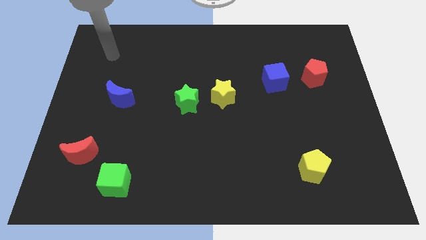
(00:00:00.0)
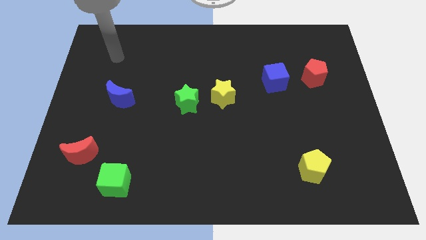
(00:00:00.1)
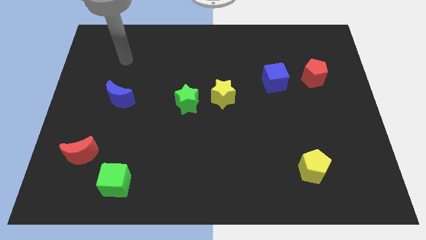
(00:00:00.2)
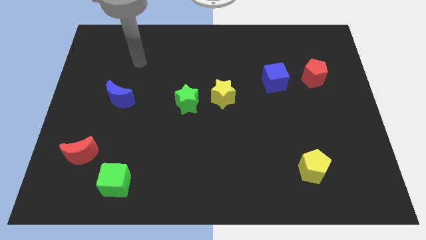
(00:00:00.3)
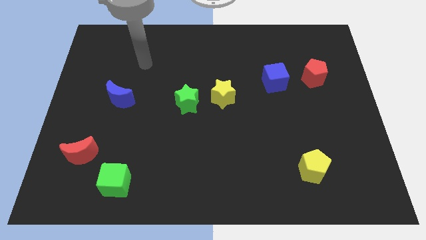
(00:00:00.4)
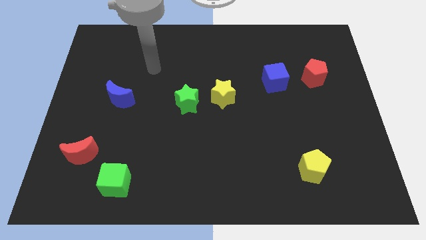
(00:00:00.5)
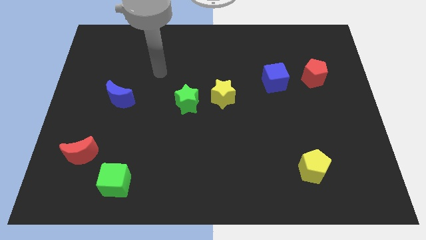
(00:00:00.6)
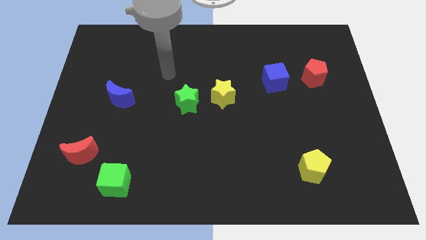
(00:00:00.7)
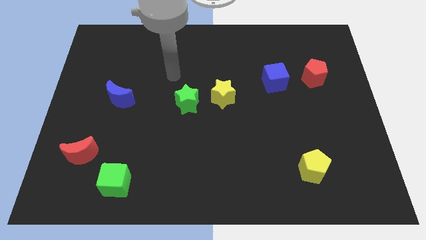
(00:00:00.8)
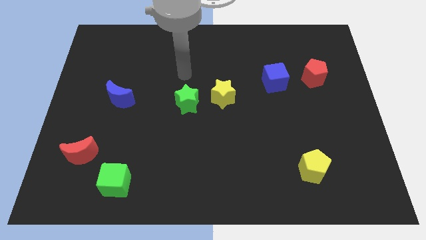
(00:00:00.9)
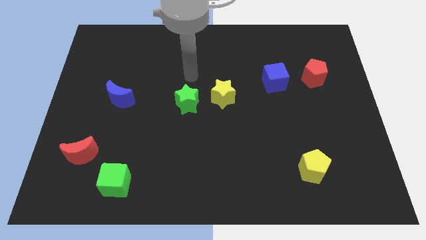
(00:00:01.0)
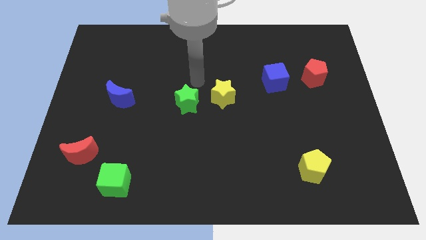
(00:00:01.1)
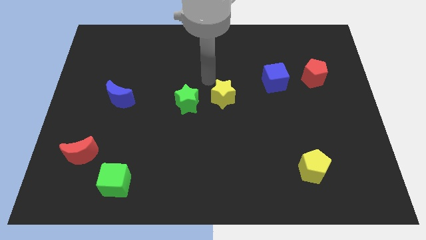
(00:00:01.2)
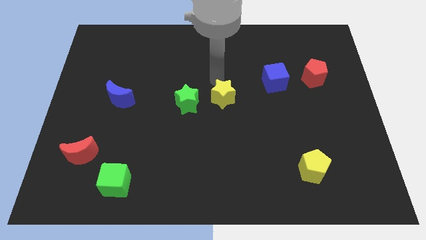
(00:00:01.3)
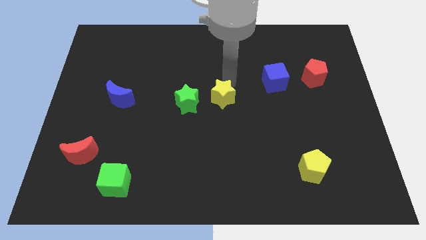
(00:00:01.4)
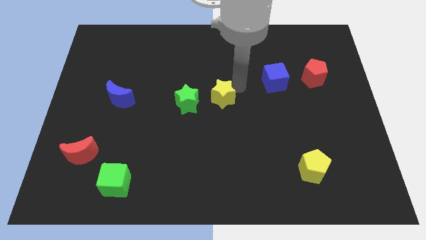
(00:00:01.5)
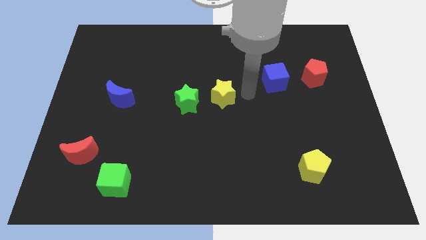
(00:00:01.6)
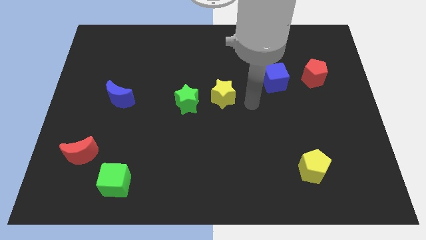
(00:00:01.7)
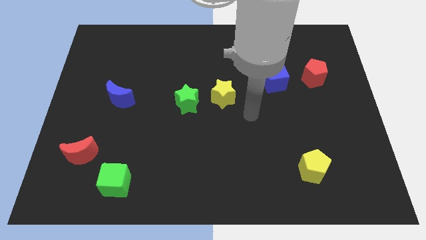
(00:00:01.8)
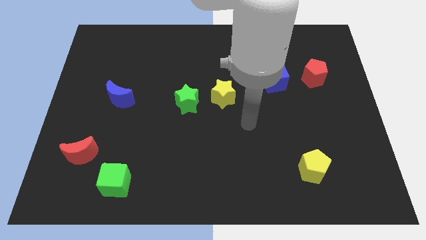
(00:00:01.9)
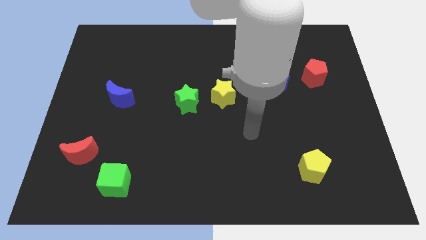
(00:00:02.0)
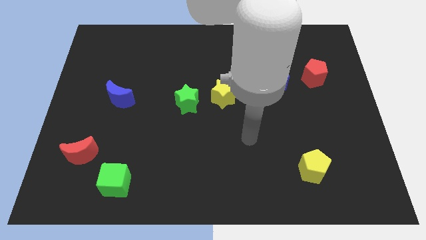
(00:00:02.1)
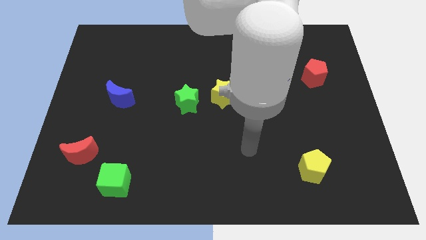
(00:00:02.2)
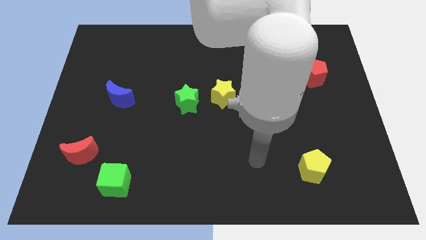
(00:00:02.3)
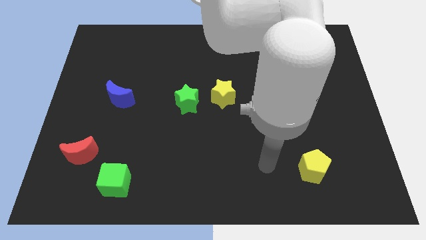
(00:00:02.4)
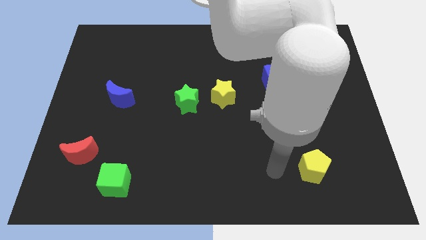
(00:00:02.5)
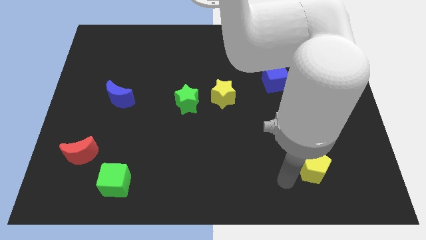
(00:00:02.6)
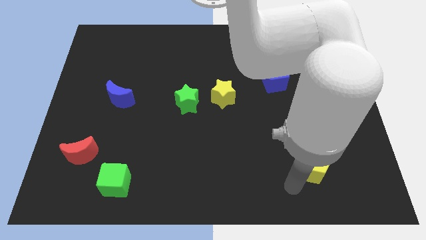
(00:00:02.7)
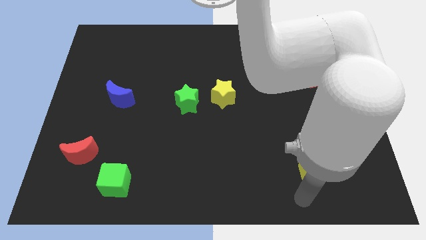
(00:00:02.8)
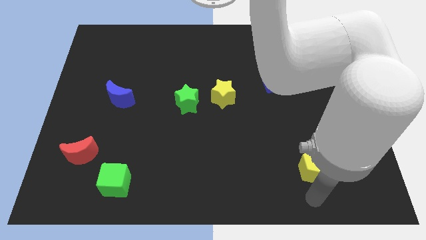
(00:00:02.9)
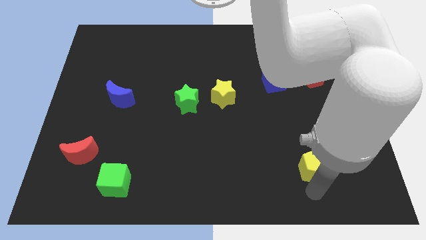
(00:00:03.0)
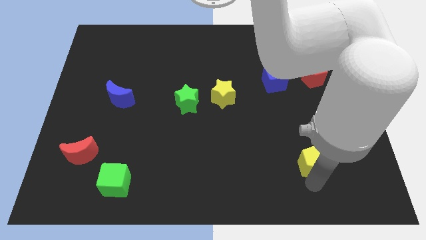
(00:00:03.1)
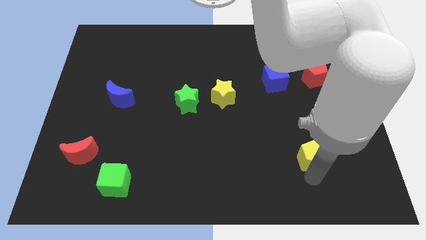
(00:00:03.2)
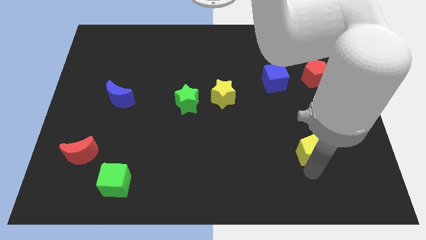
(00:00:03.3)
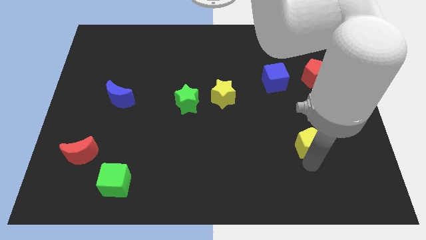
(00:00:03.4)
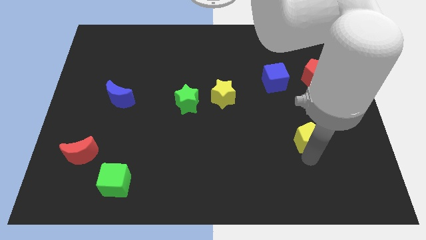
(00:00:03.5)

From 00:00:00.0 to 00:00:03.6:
slide the yellow pentagon up slightly

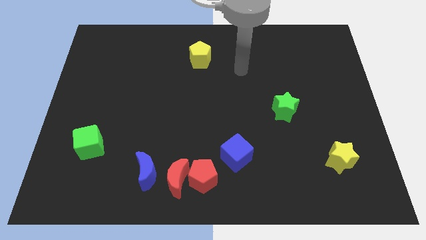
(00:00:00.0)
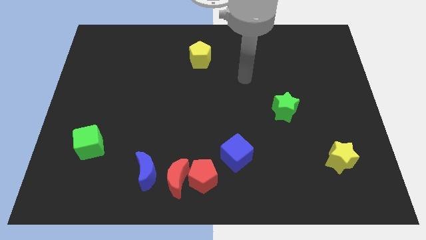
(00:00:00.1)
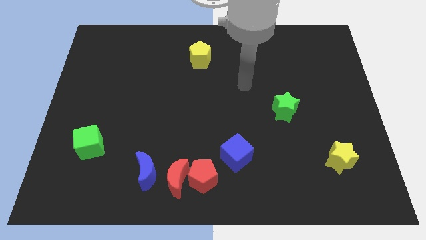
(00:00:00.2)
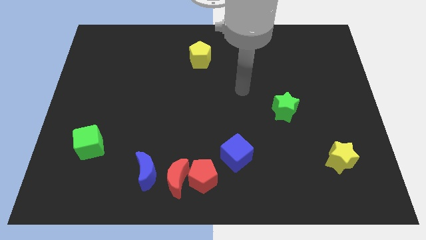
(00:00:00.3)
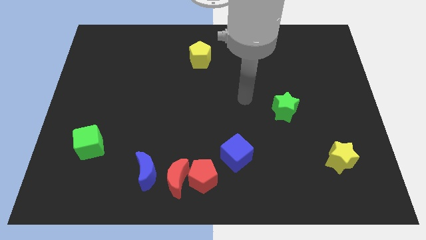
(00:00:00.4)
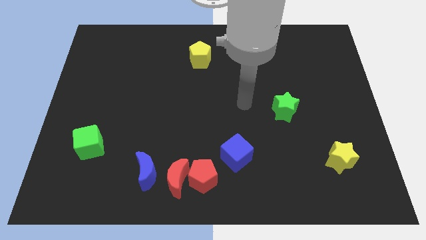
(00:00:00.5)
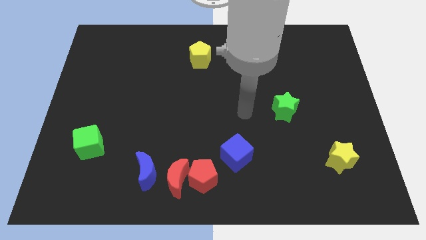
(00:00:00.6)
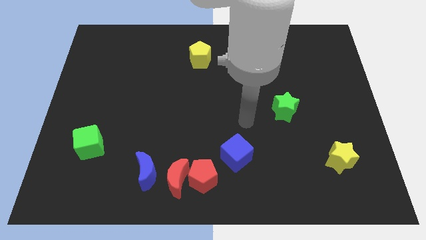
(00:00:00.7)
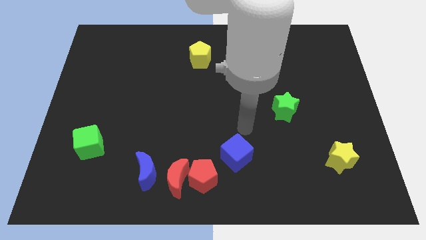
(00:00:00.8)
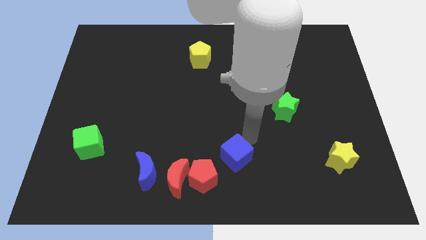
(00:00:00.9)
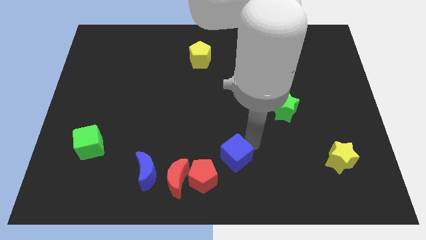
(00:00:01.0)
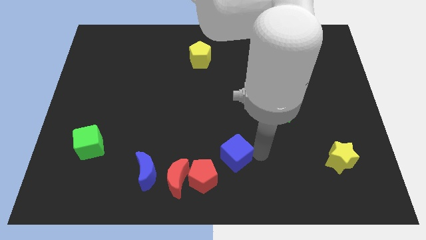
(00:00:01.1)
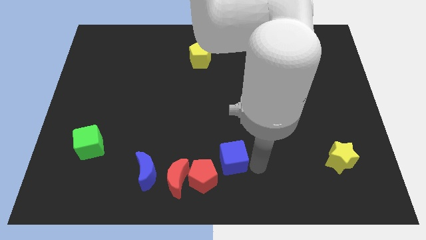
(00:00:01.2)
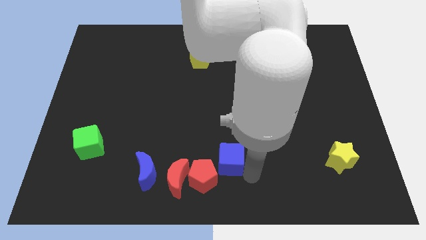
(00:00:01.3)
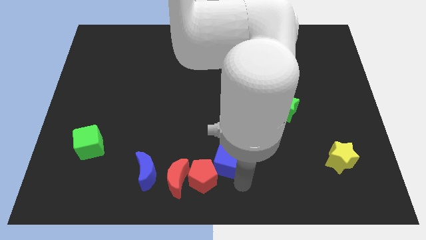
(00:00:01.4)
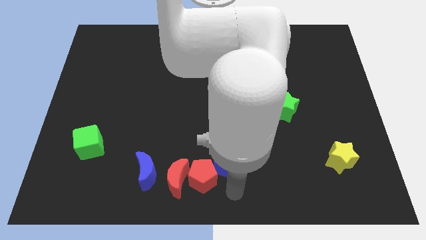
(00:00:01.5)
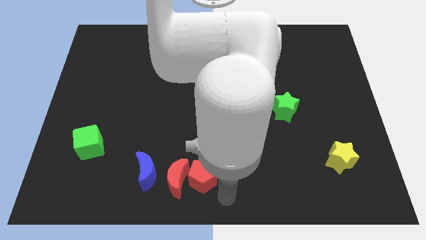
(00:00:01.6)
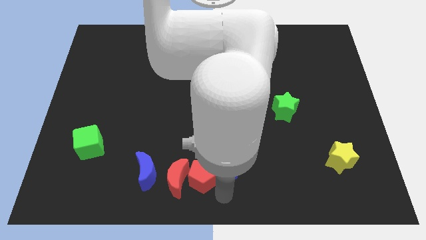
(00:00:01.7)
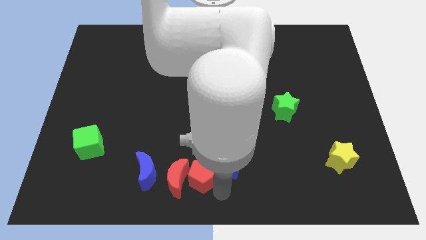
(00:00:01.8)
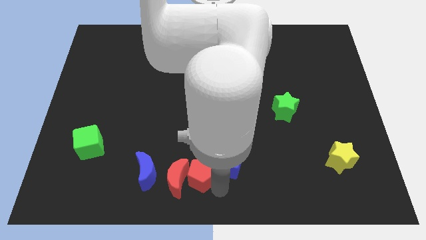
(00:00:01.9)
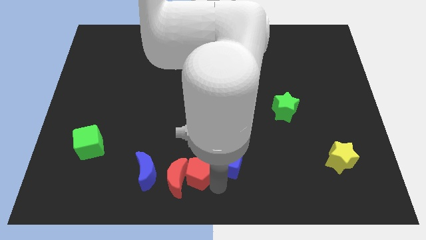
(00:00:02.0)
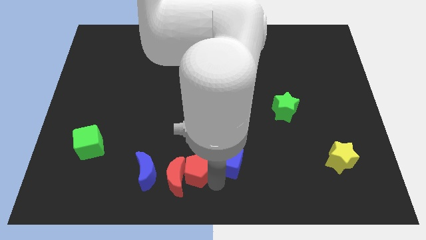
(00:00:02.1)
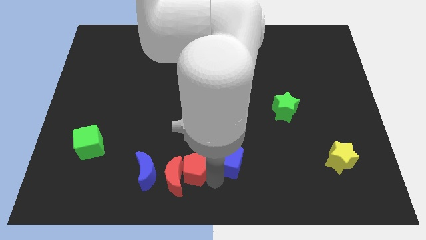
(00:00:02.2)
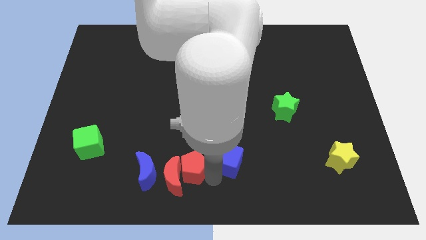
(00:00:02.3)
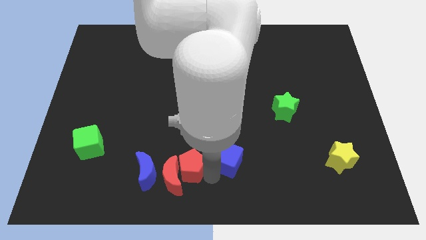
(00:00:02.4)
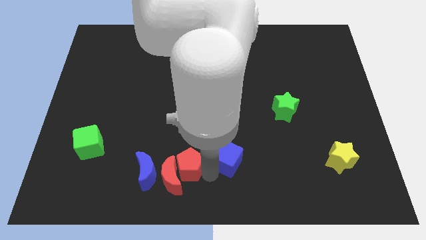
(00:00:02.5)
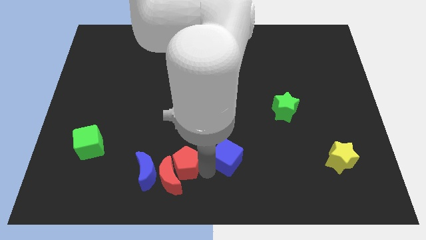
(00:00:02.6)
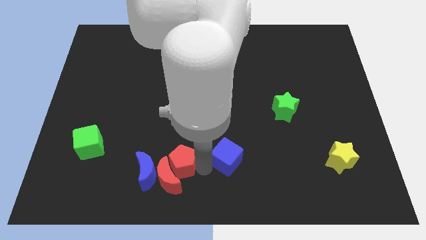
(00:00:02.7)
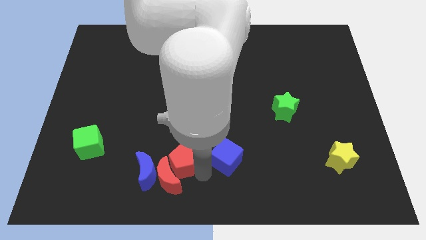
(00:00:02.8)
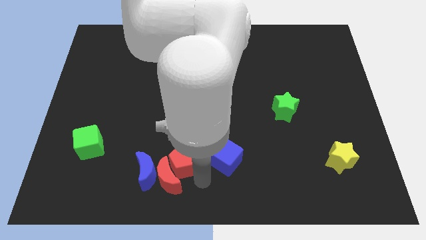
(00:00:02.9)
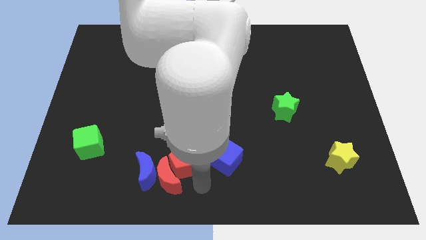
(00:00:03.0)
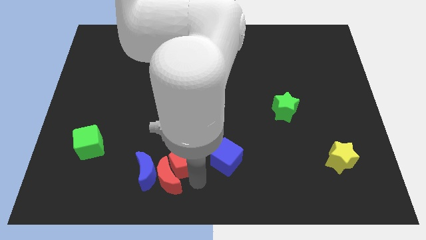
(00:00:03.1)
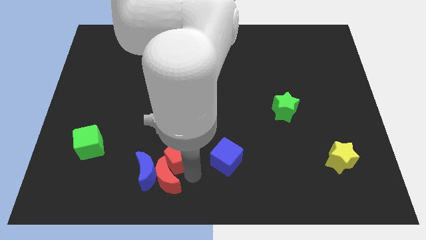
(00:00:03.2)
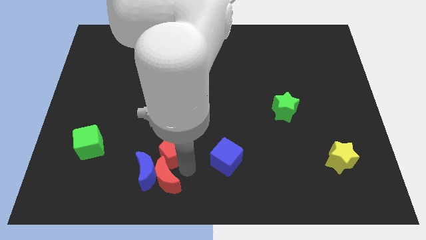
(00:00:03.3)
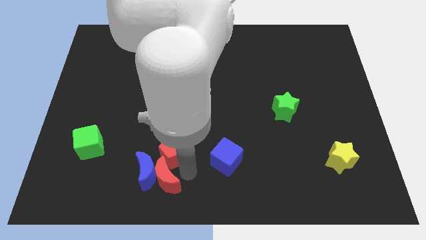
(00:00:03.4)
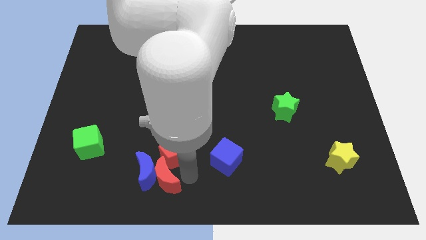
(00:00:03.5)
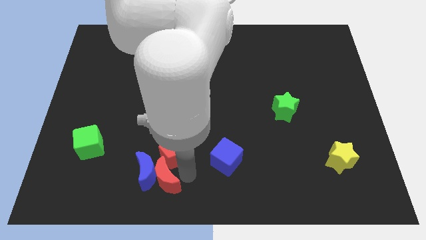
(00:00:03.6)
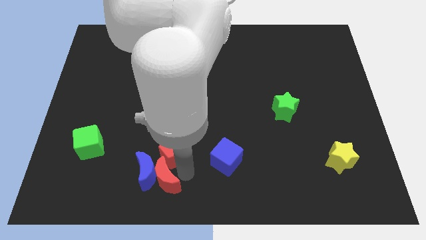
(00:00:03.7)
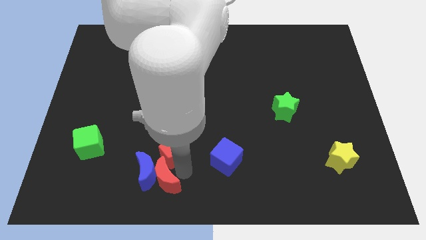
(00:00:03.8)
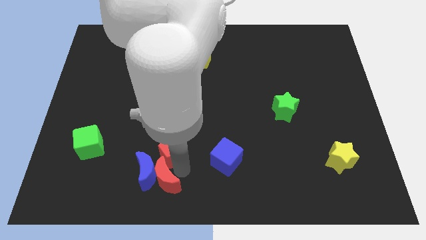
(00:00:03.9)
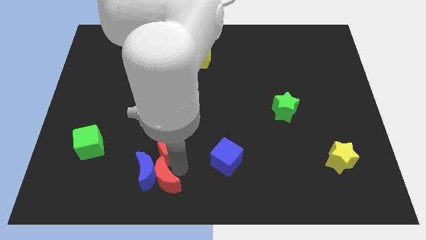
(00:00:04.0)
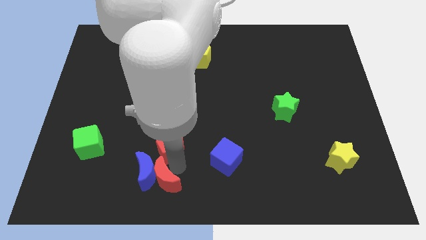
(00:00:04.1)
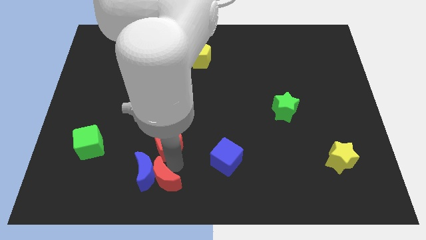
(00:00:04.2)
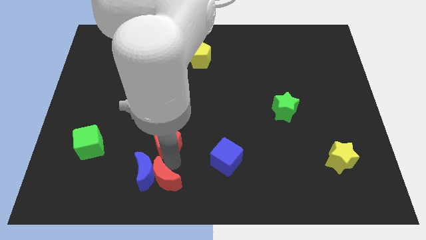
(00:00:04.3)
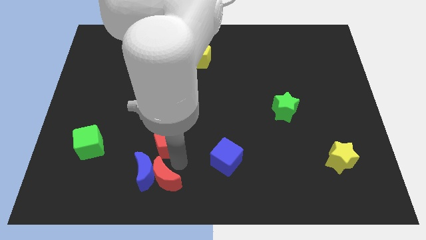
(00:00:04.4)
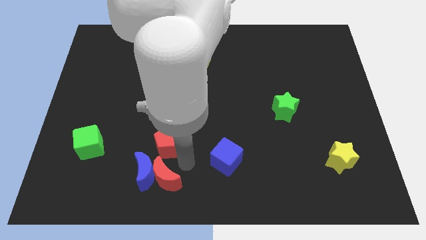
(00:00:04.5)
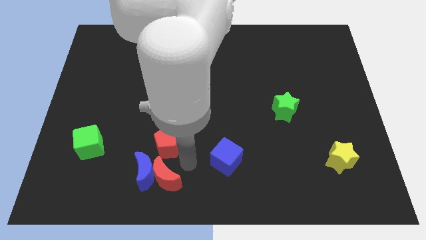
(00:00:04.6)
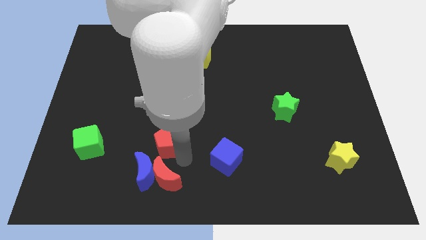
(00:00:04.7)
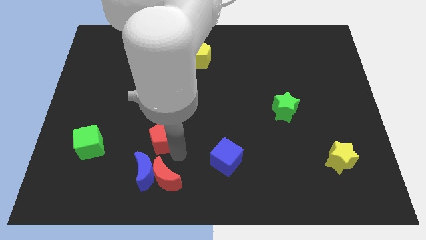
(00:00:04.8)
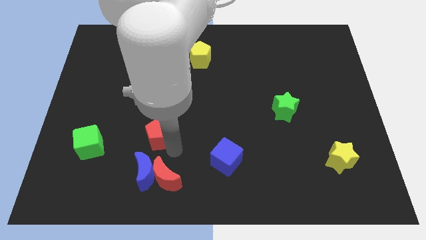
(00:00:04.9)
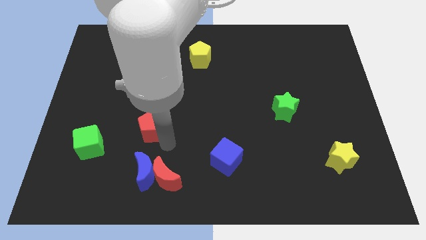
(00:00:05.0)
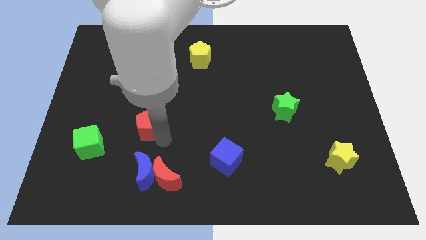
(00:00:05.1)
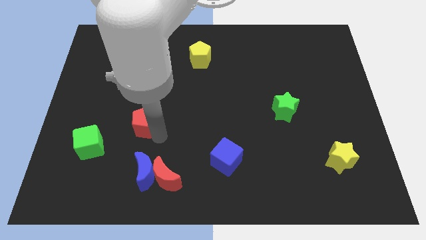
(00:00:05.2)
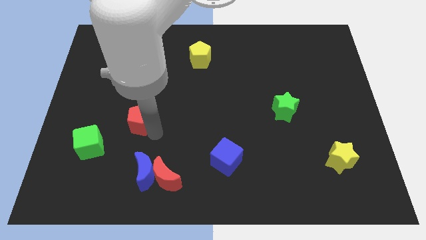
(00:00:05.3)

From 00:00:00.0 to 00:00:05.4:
push the red pentagon upwards and to the left
